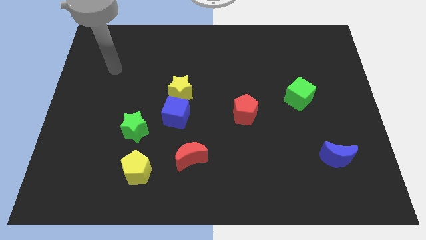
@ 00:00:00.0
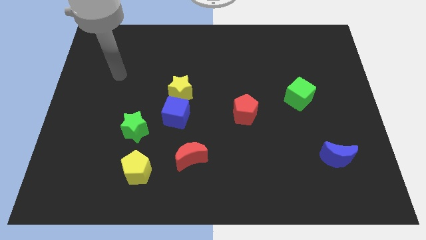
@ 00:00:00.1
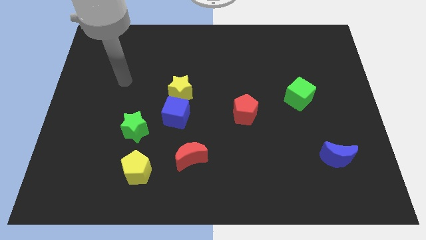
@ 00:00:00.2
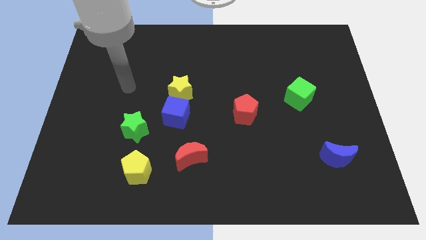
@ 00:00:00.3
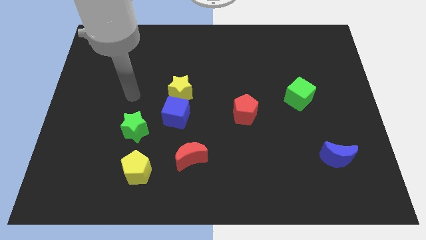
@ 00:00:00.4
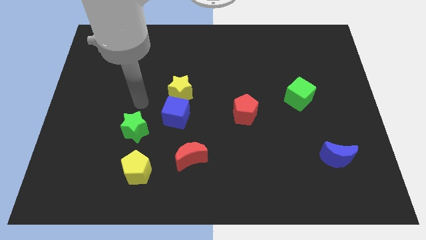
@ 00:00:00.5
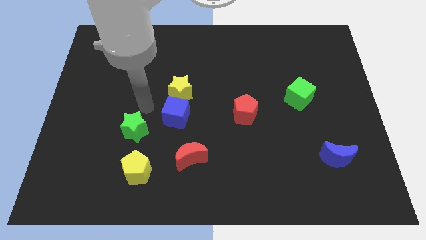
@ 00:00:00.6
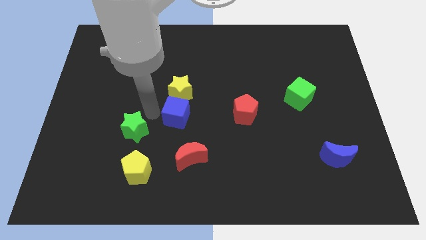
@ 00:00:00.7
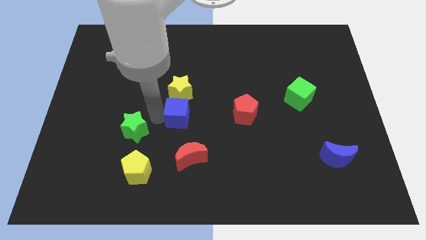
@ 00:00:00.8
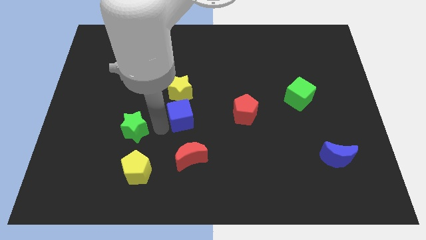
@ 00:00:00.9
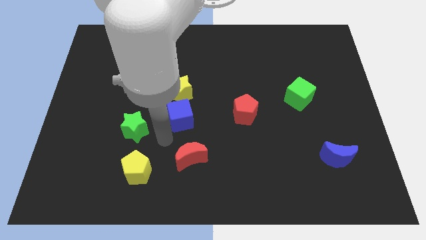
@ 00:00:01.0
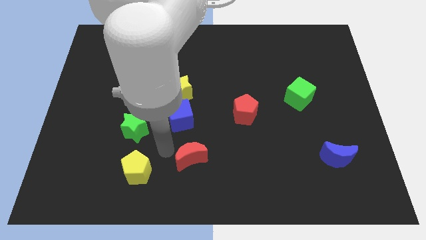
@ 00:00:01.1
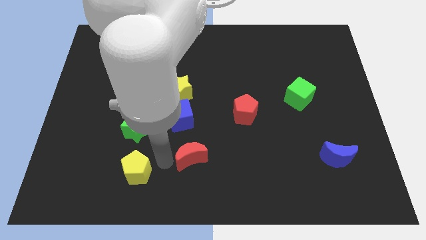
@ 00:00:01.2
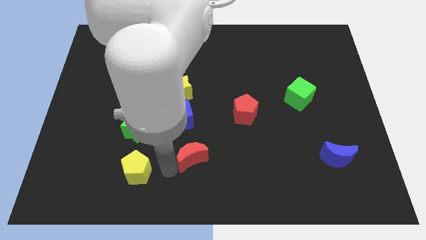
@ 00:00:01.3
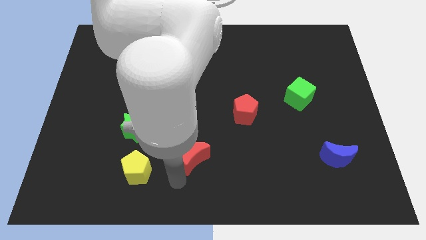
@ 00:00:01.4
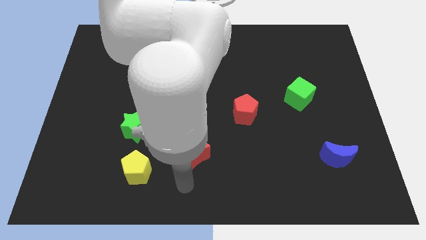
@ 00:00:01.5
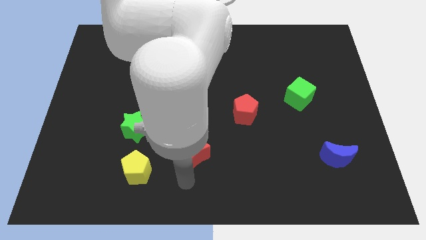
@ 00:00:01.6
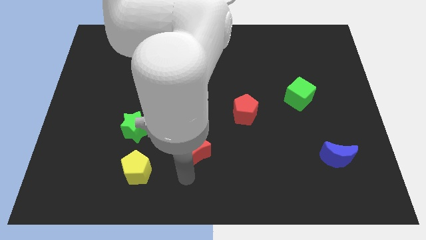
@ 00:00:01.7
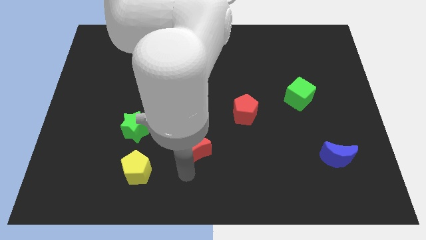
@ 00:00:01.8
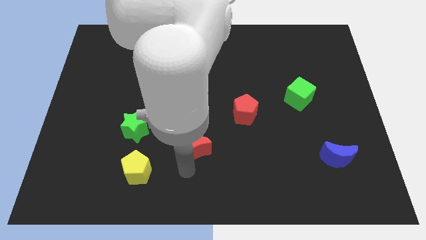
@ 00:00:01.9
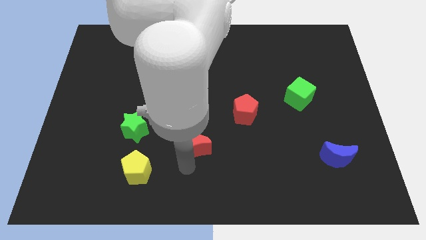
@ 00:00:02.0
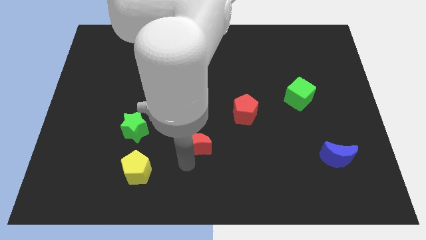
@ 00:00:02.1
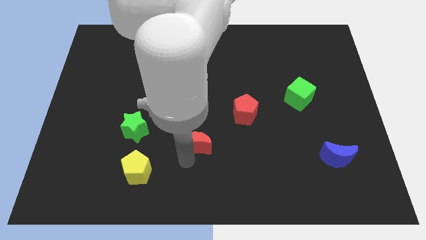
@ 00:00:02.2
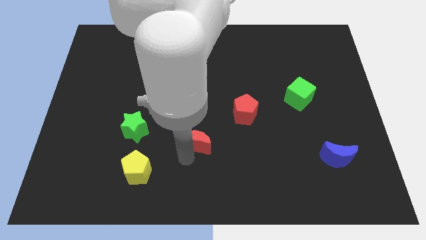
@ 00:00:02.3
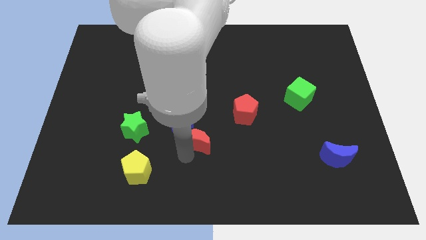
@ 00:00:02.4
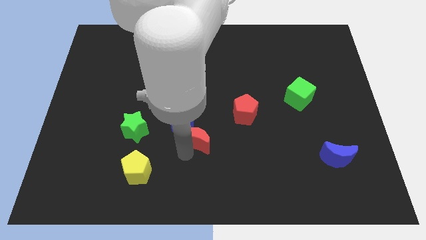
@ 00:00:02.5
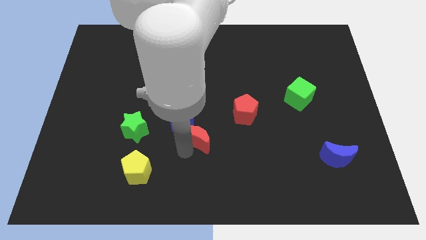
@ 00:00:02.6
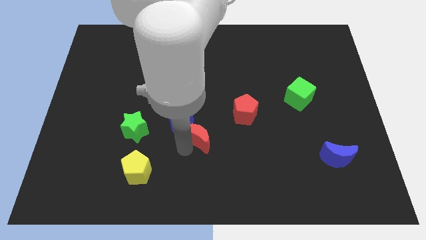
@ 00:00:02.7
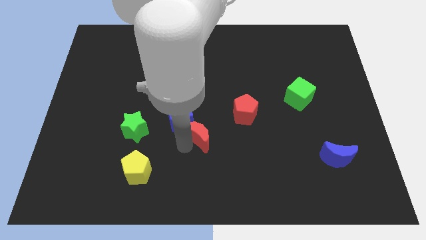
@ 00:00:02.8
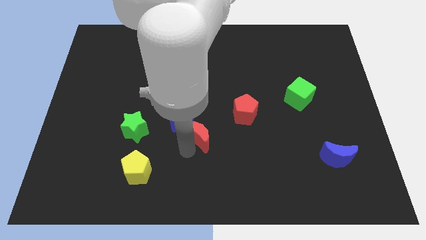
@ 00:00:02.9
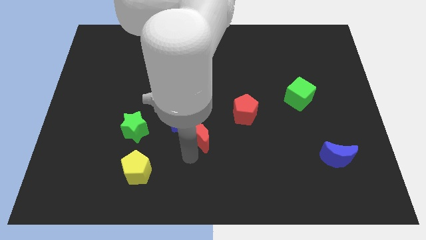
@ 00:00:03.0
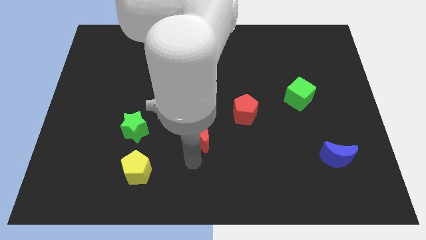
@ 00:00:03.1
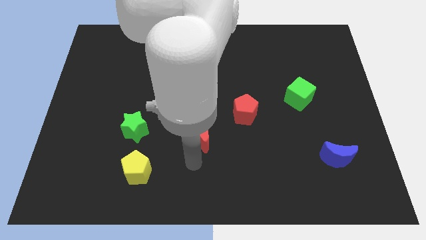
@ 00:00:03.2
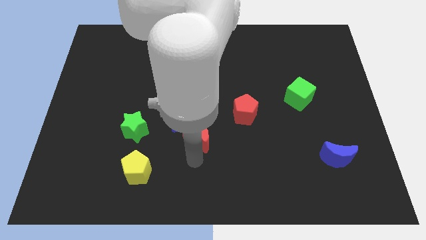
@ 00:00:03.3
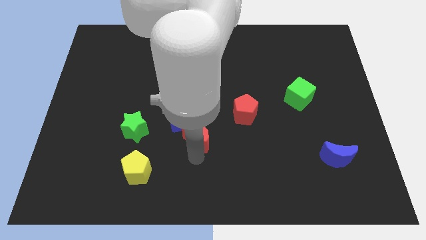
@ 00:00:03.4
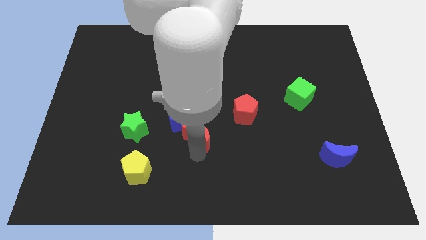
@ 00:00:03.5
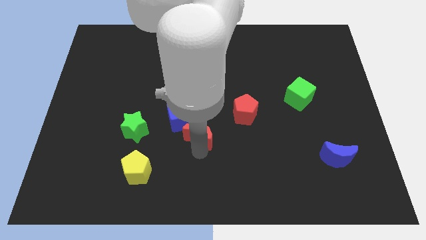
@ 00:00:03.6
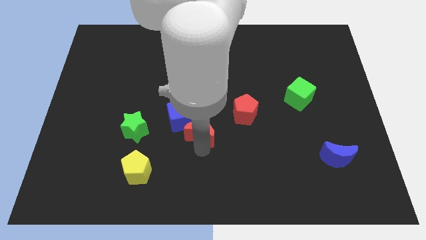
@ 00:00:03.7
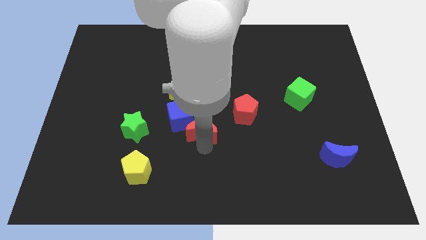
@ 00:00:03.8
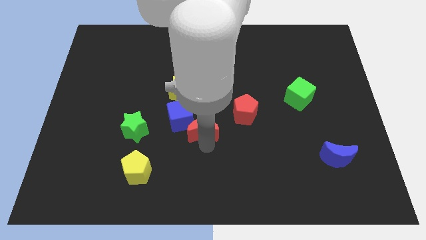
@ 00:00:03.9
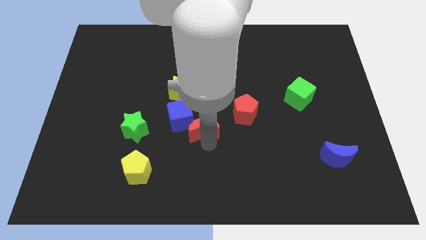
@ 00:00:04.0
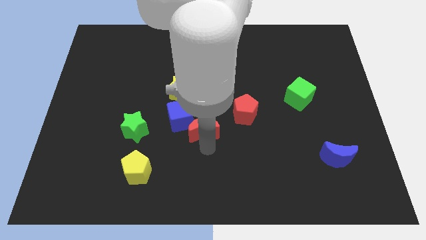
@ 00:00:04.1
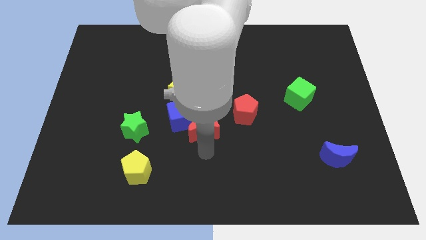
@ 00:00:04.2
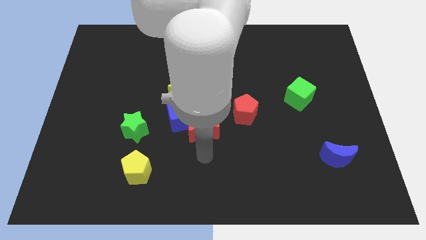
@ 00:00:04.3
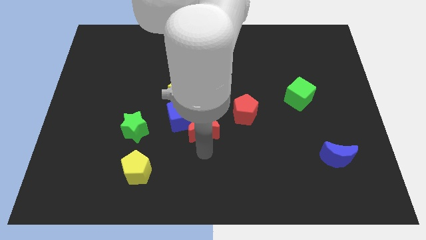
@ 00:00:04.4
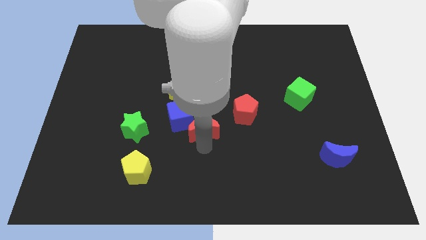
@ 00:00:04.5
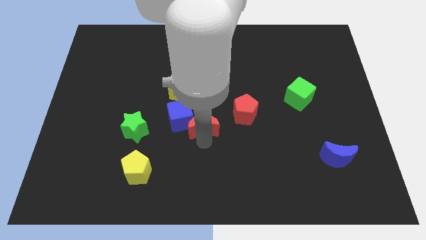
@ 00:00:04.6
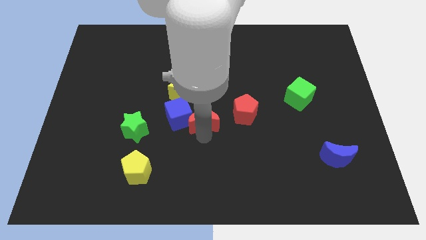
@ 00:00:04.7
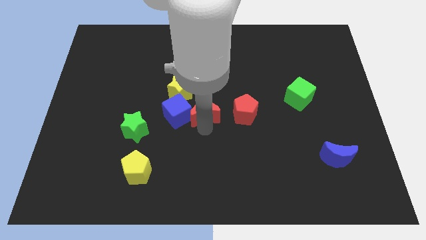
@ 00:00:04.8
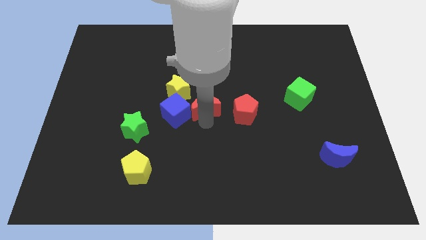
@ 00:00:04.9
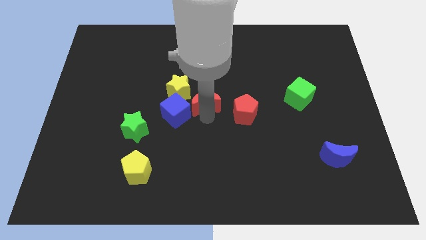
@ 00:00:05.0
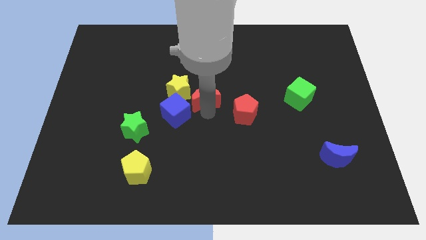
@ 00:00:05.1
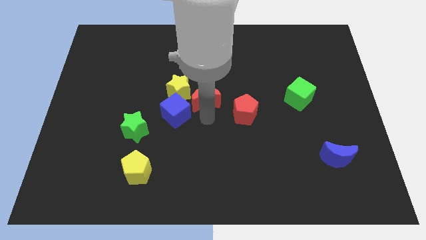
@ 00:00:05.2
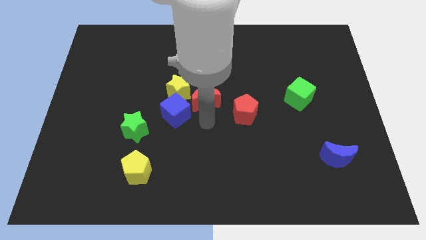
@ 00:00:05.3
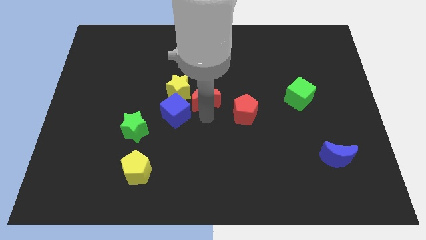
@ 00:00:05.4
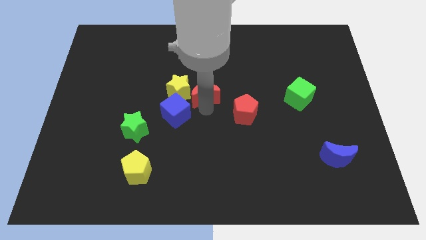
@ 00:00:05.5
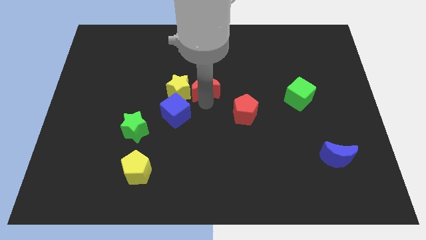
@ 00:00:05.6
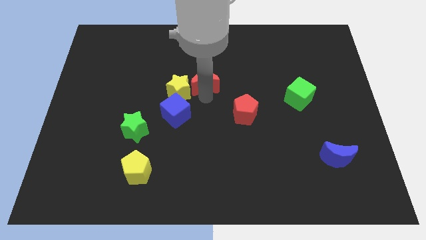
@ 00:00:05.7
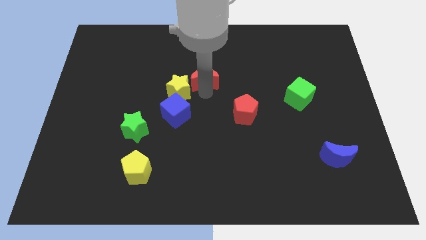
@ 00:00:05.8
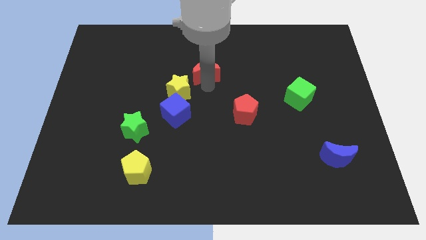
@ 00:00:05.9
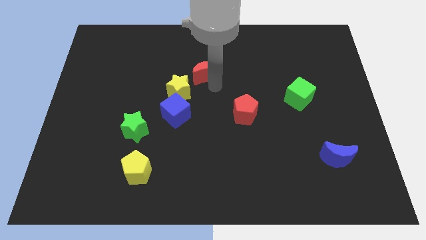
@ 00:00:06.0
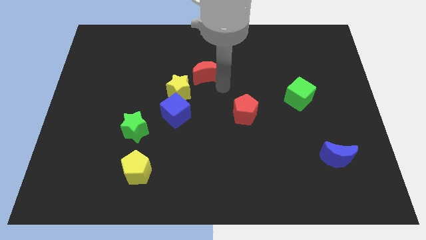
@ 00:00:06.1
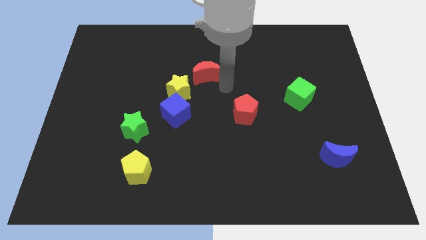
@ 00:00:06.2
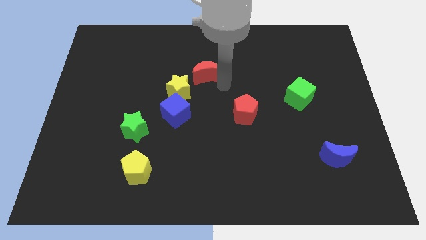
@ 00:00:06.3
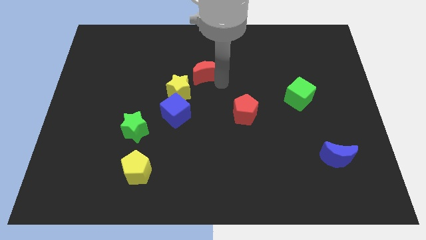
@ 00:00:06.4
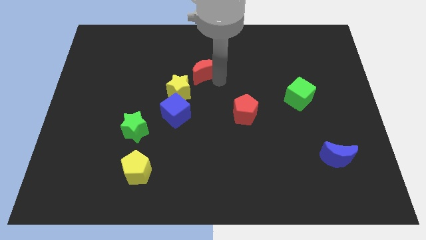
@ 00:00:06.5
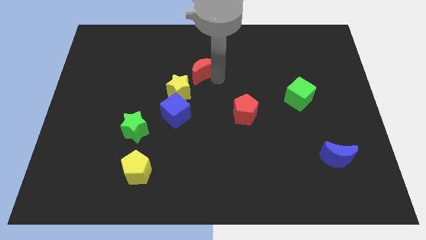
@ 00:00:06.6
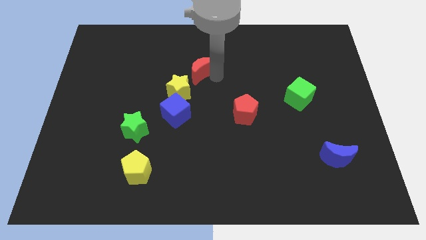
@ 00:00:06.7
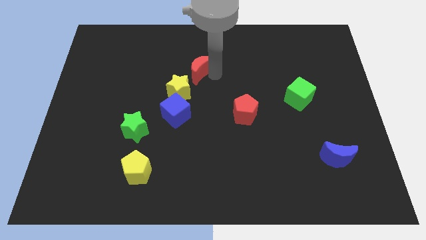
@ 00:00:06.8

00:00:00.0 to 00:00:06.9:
push the red moon to the top side of the yellow star
